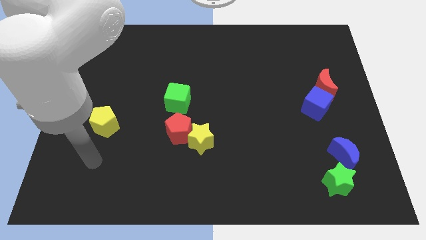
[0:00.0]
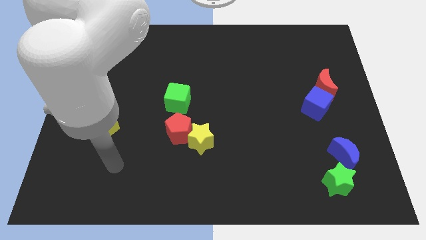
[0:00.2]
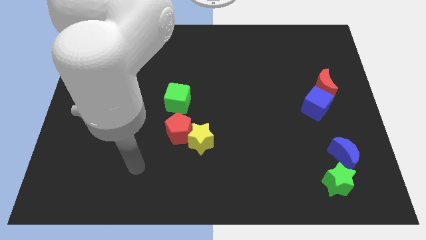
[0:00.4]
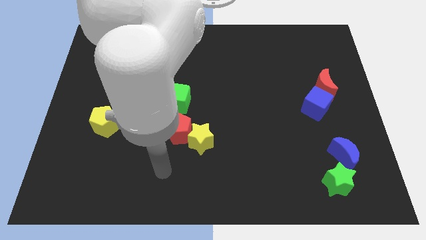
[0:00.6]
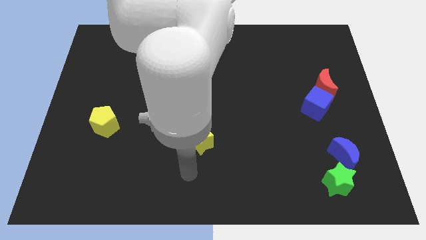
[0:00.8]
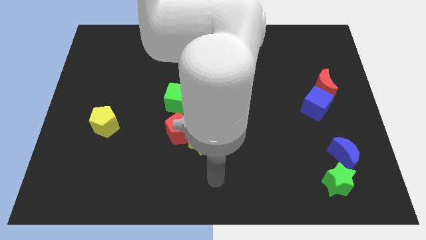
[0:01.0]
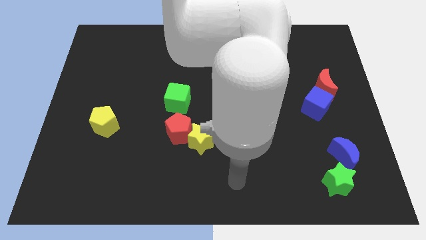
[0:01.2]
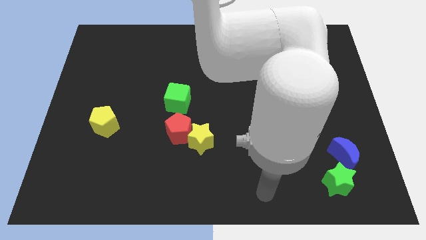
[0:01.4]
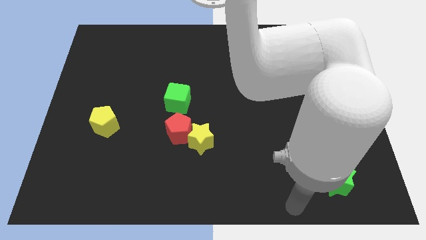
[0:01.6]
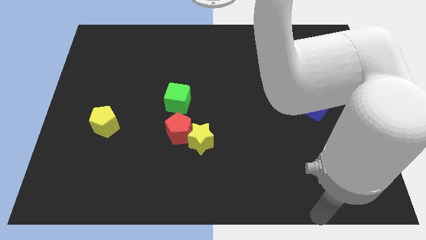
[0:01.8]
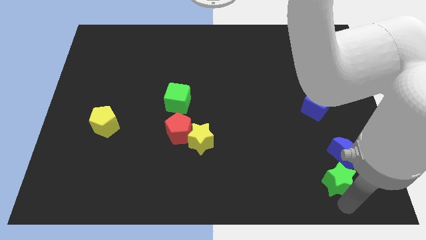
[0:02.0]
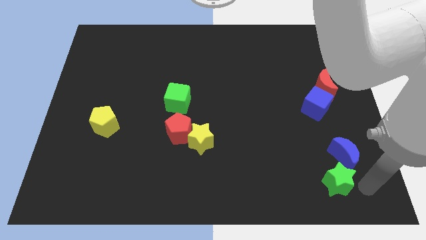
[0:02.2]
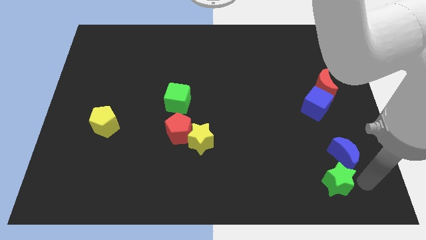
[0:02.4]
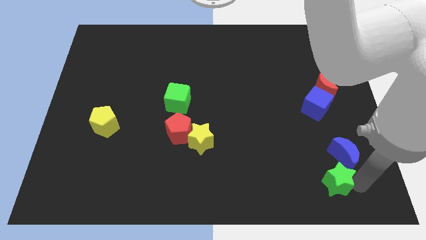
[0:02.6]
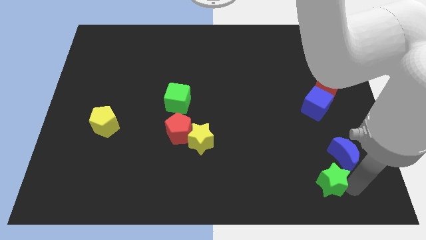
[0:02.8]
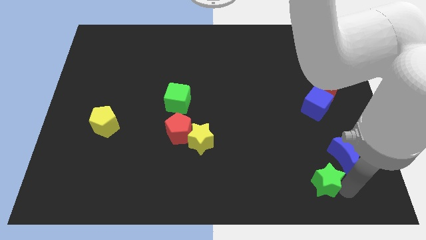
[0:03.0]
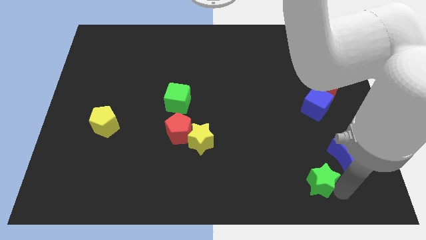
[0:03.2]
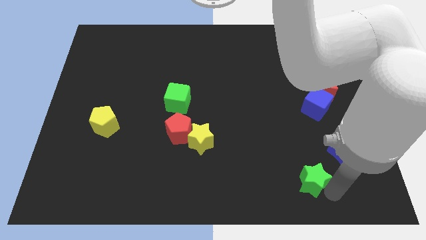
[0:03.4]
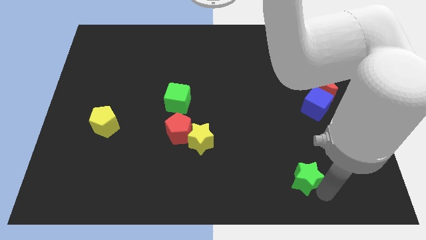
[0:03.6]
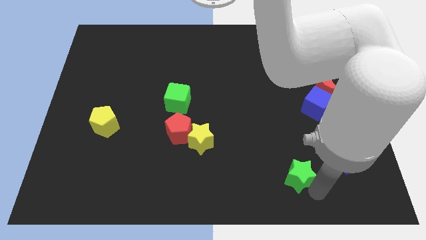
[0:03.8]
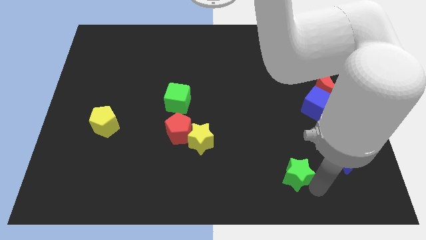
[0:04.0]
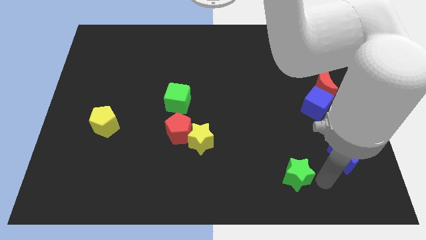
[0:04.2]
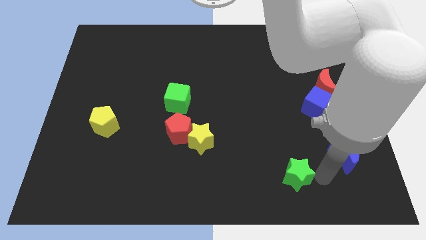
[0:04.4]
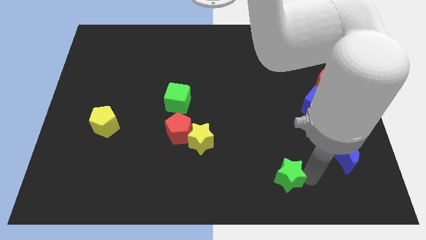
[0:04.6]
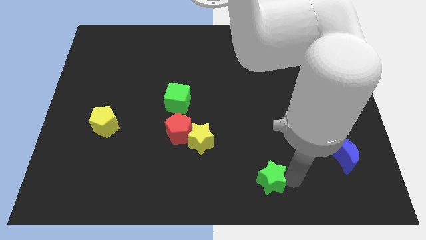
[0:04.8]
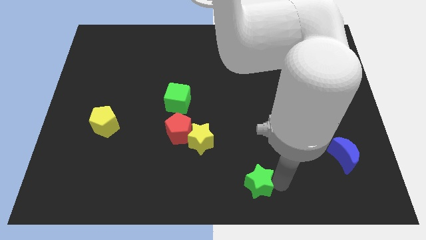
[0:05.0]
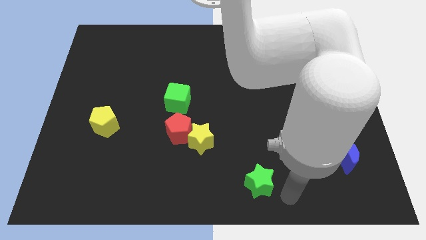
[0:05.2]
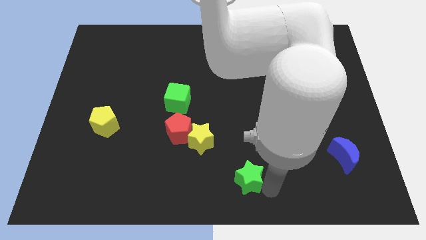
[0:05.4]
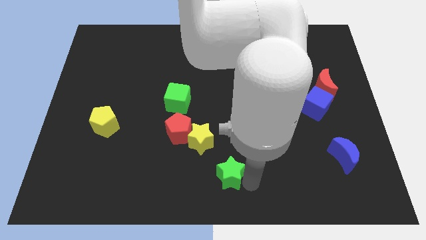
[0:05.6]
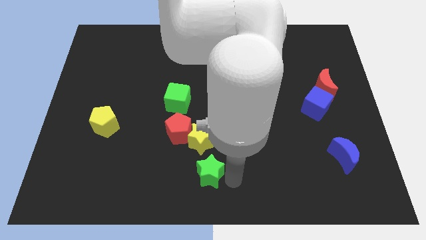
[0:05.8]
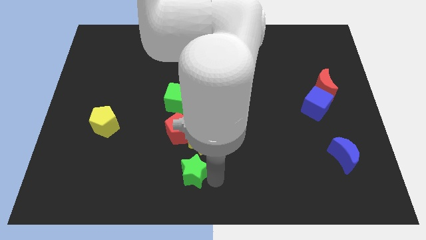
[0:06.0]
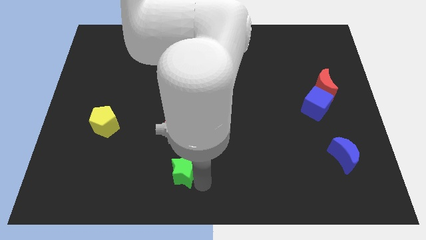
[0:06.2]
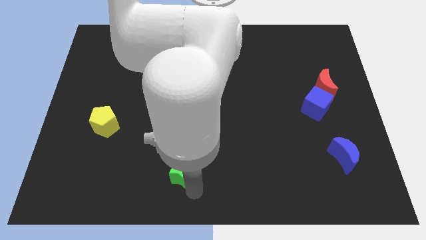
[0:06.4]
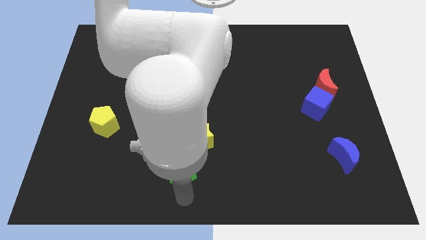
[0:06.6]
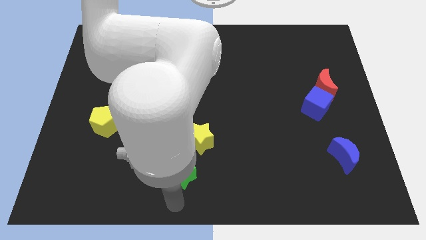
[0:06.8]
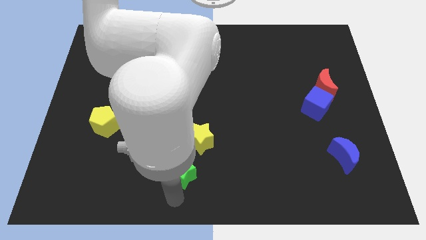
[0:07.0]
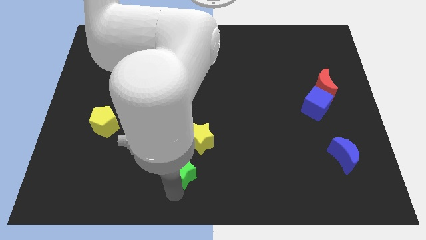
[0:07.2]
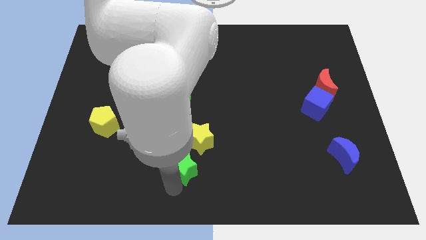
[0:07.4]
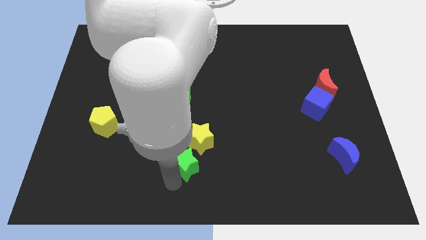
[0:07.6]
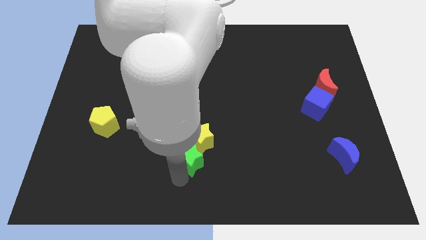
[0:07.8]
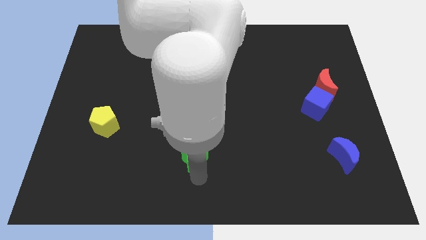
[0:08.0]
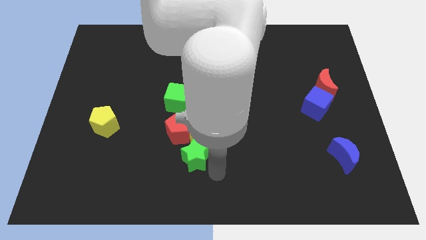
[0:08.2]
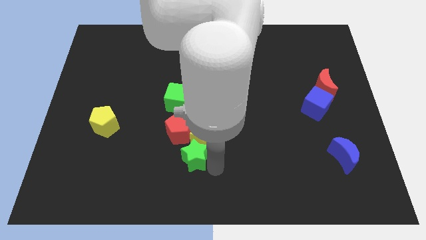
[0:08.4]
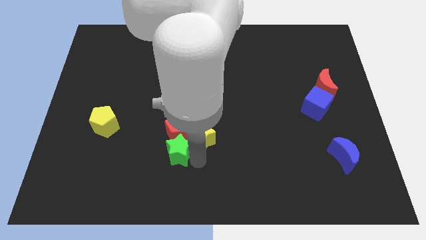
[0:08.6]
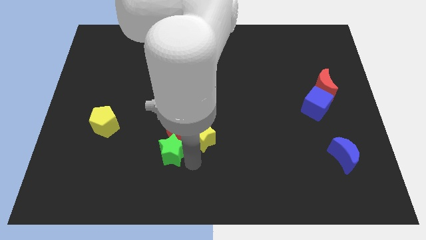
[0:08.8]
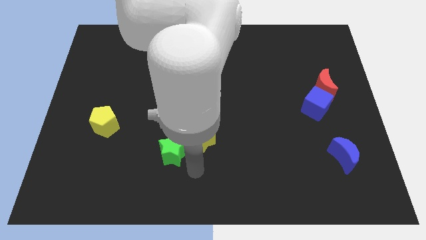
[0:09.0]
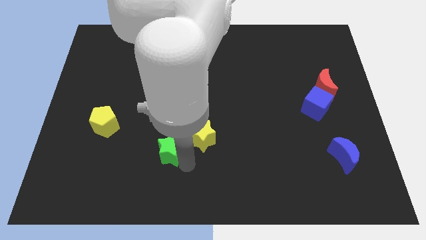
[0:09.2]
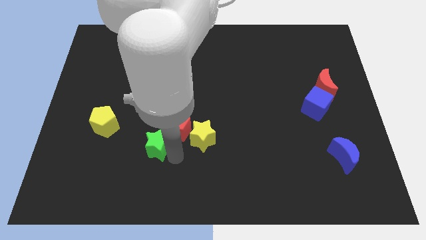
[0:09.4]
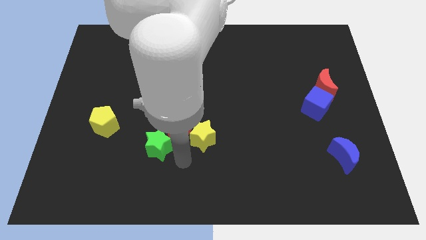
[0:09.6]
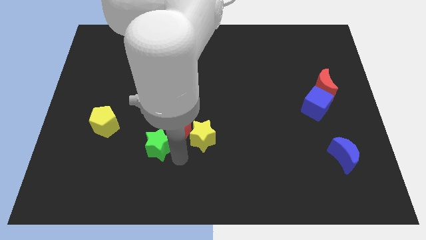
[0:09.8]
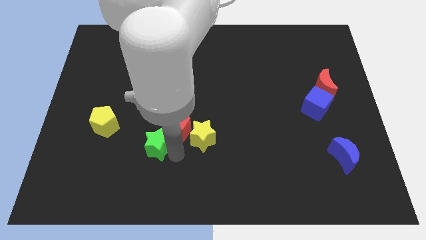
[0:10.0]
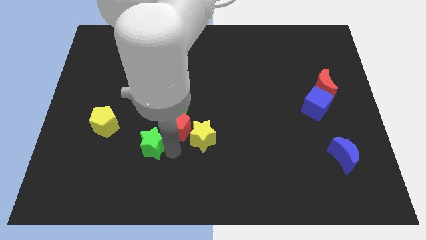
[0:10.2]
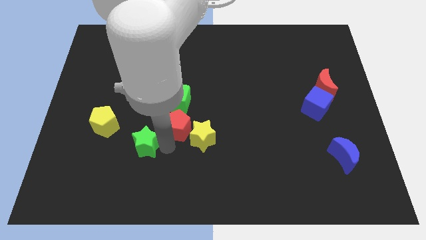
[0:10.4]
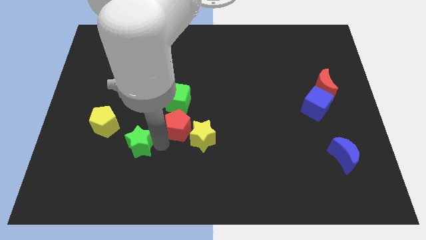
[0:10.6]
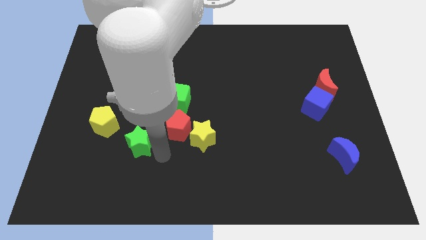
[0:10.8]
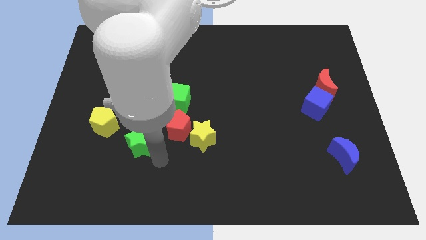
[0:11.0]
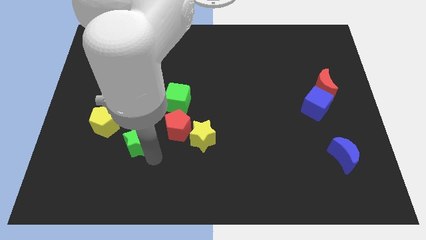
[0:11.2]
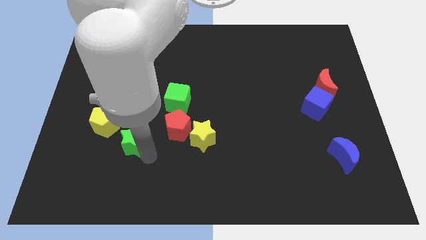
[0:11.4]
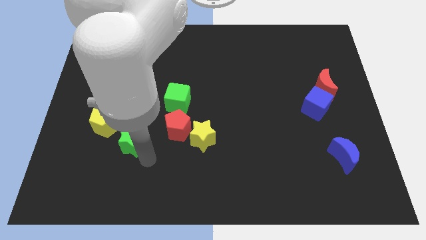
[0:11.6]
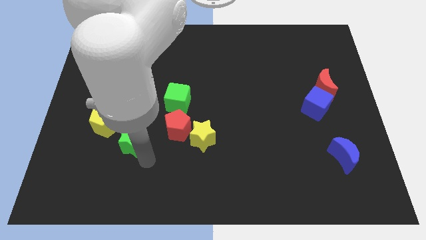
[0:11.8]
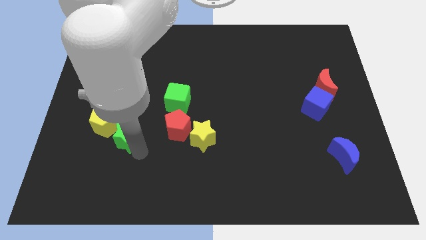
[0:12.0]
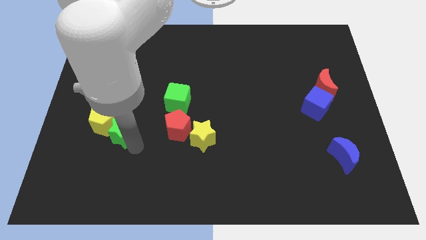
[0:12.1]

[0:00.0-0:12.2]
push the green star next to the yellow pentagon

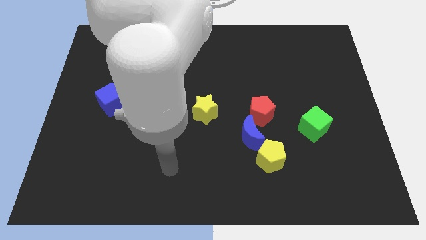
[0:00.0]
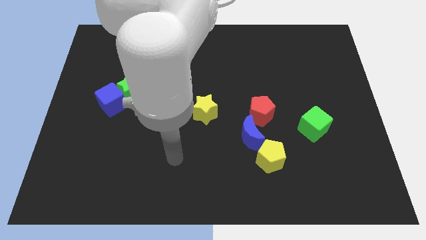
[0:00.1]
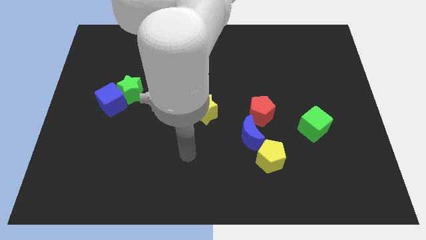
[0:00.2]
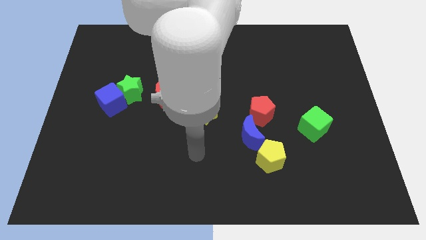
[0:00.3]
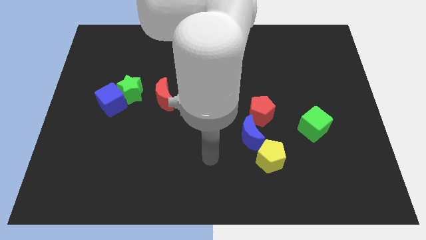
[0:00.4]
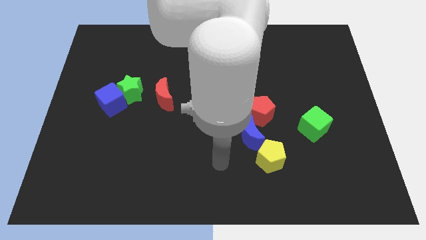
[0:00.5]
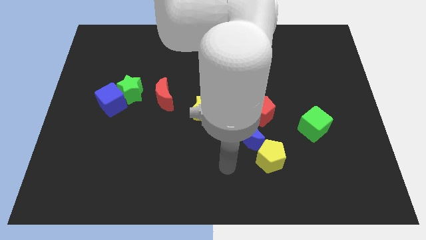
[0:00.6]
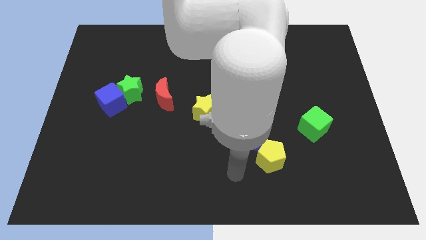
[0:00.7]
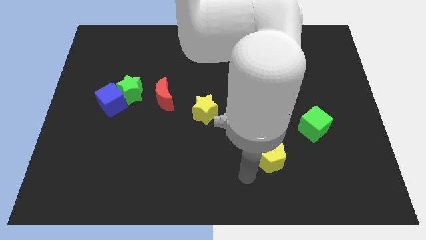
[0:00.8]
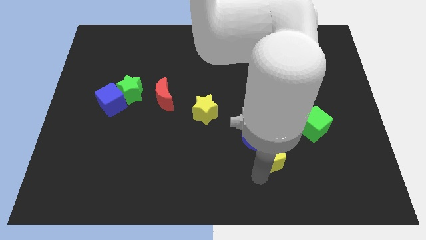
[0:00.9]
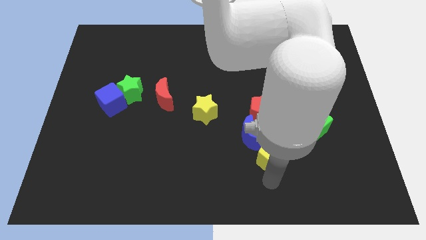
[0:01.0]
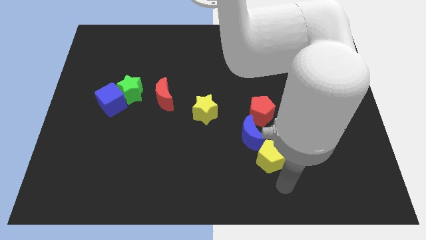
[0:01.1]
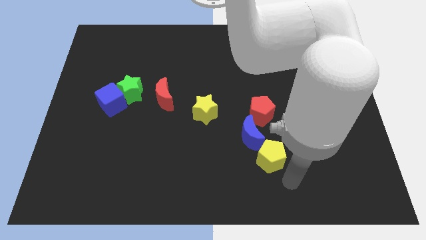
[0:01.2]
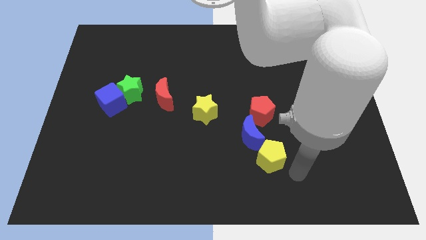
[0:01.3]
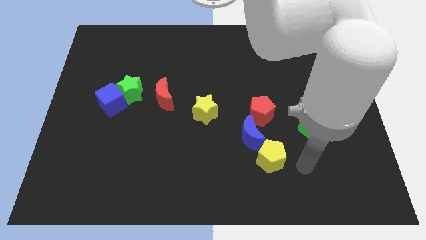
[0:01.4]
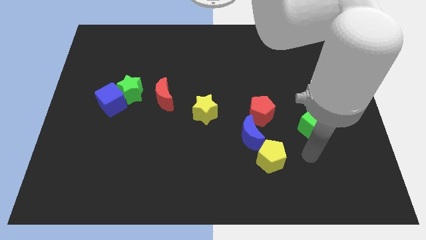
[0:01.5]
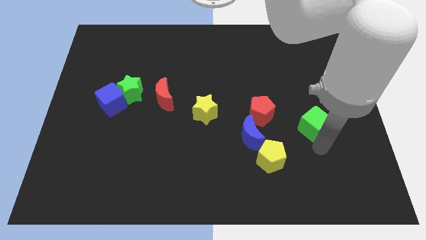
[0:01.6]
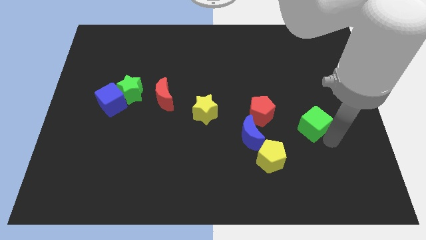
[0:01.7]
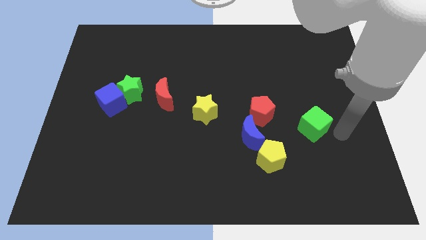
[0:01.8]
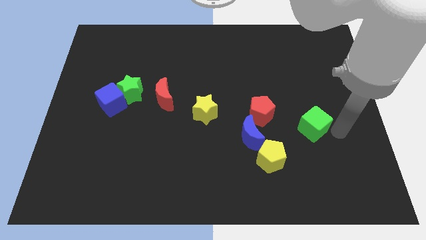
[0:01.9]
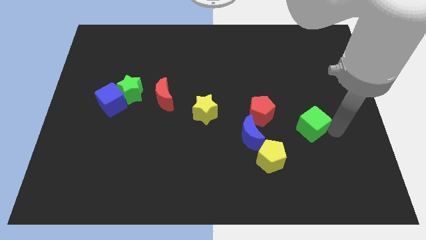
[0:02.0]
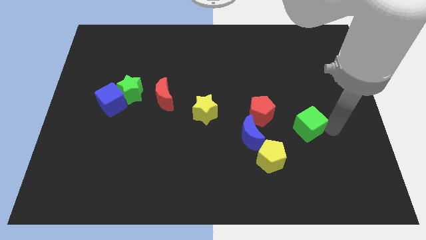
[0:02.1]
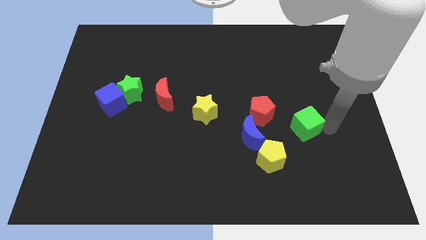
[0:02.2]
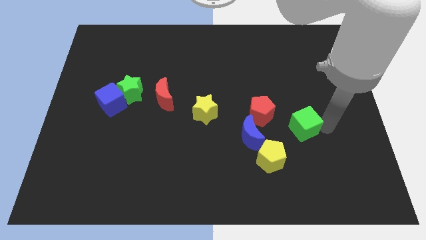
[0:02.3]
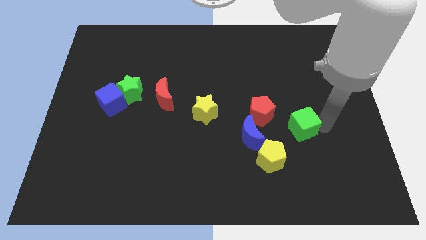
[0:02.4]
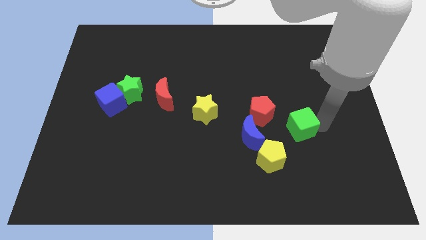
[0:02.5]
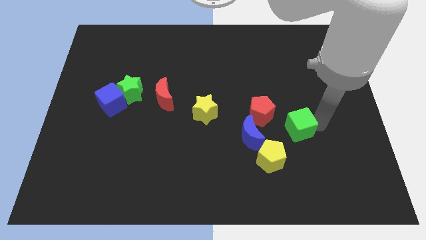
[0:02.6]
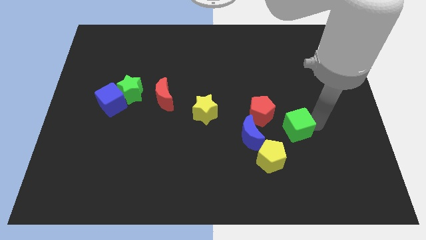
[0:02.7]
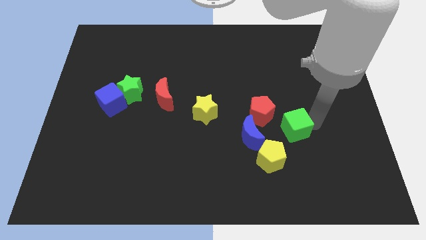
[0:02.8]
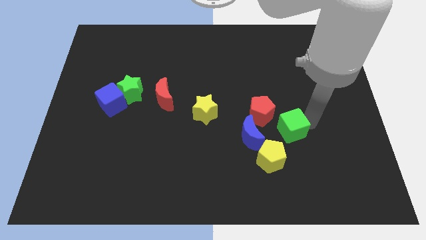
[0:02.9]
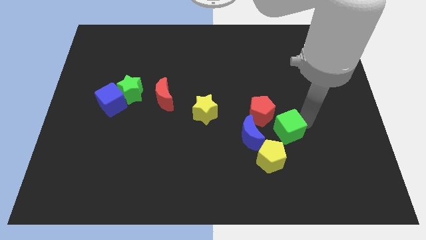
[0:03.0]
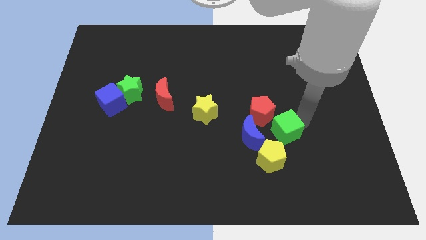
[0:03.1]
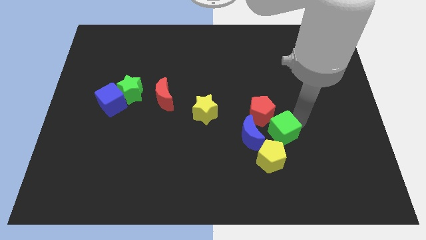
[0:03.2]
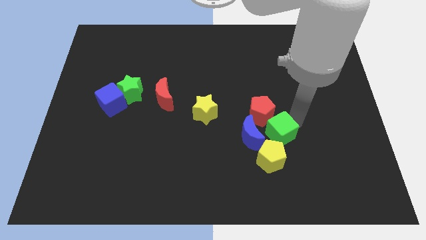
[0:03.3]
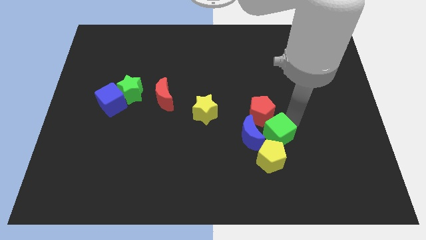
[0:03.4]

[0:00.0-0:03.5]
move the green cube towards the red pentagon
